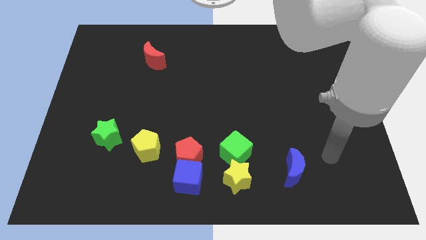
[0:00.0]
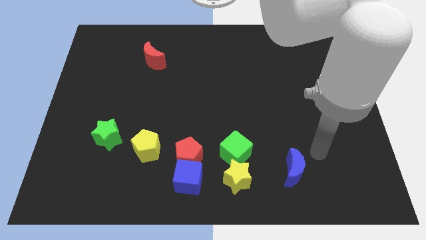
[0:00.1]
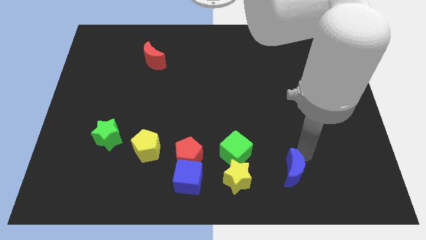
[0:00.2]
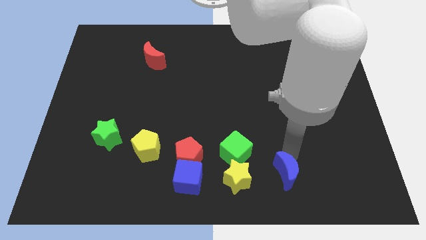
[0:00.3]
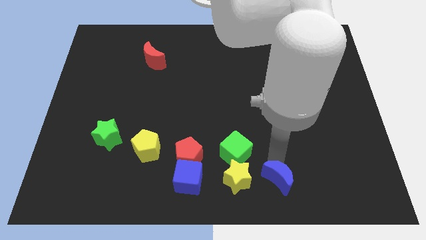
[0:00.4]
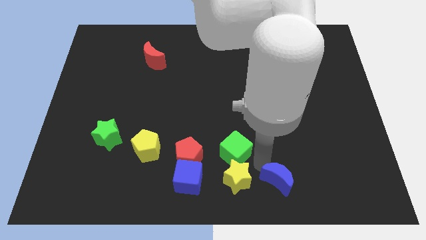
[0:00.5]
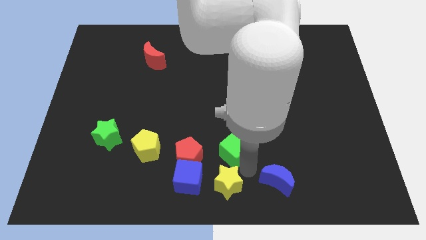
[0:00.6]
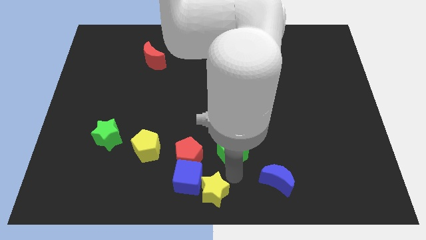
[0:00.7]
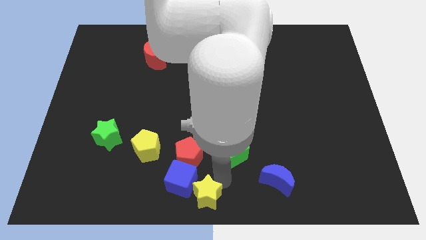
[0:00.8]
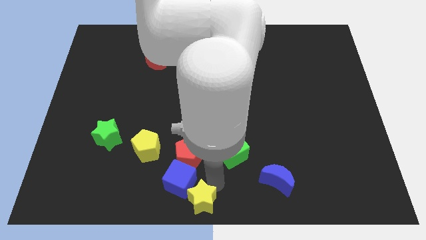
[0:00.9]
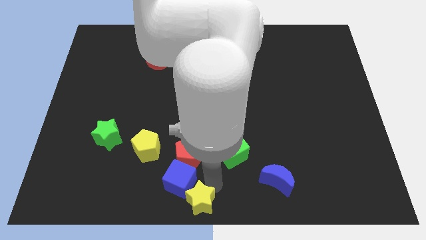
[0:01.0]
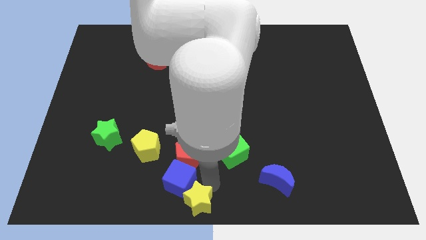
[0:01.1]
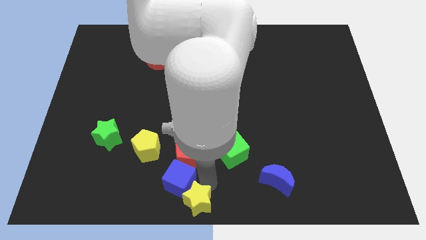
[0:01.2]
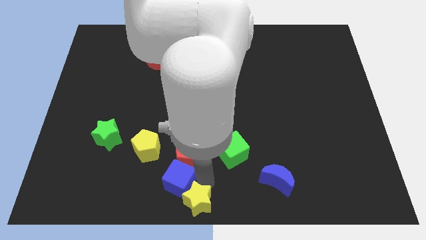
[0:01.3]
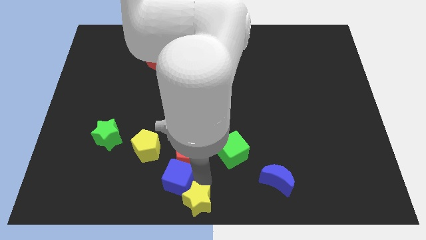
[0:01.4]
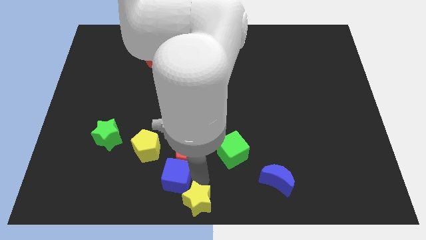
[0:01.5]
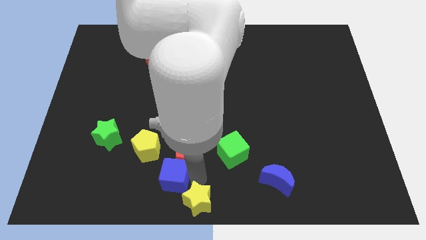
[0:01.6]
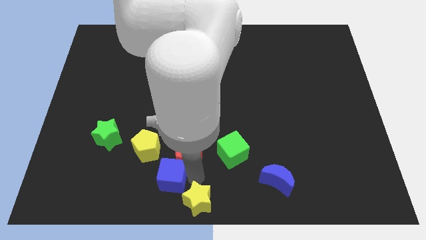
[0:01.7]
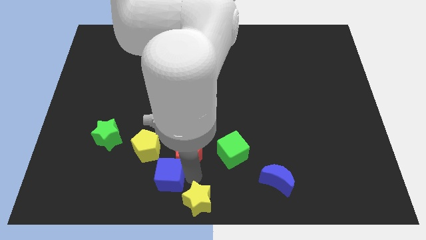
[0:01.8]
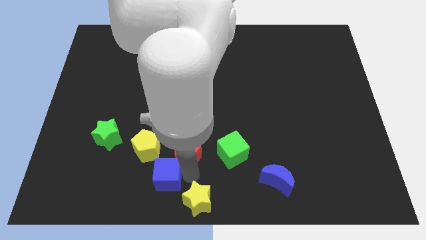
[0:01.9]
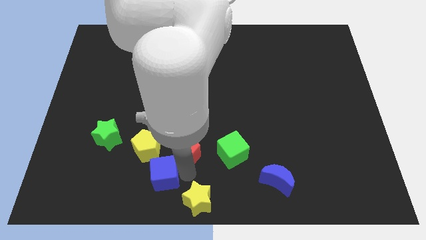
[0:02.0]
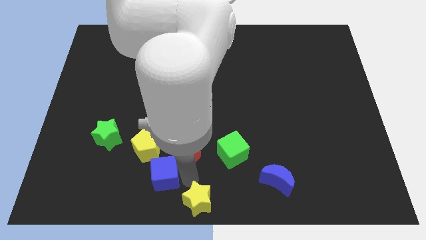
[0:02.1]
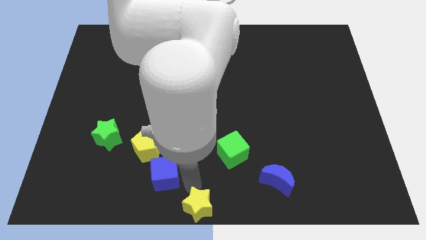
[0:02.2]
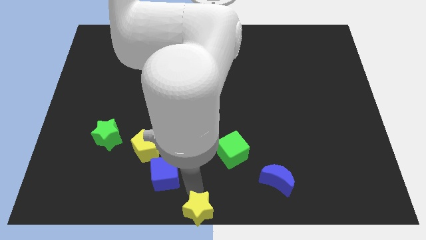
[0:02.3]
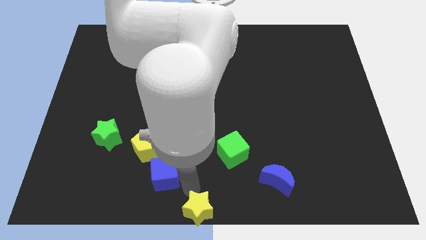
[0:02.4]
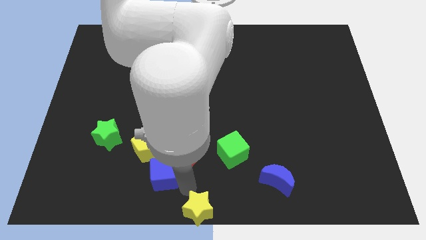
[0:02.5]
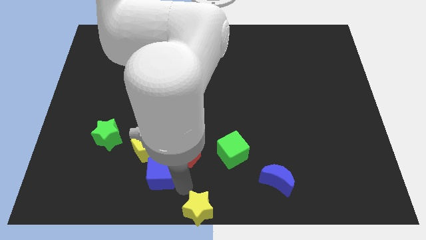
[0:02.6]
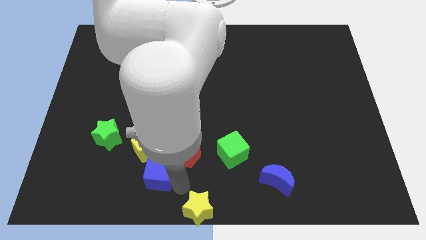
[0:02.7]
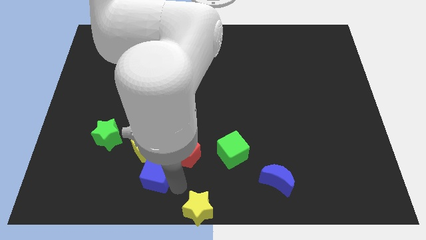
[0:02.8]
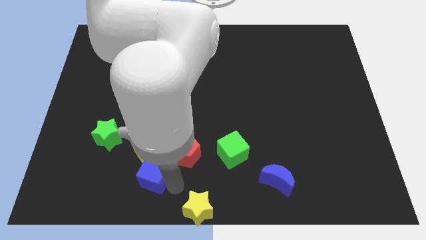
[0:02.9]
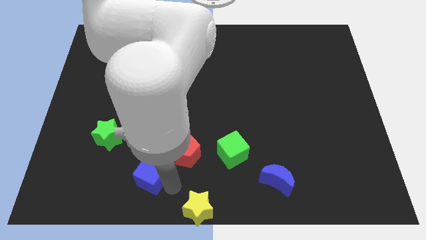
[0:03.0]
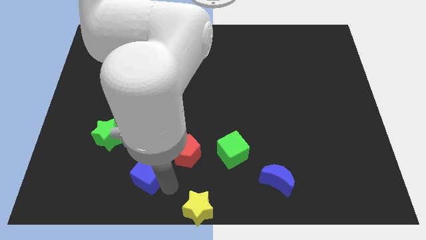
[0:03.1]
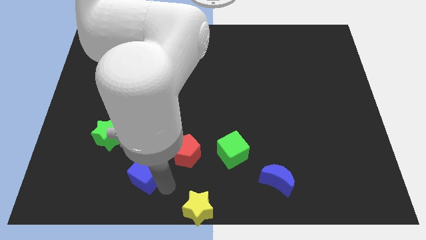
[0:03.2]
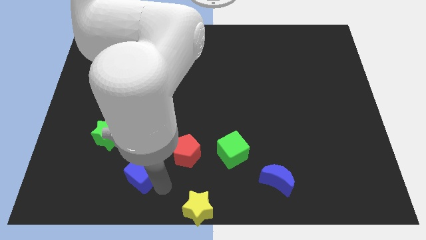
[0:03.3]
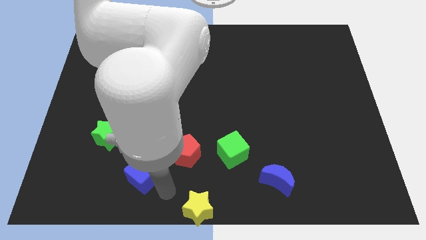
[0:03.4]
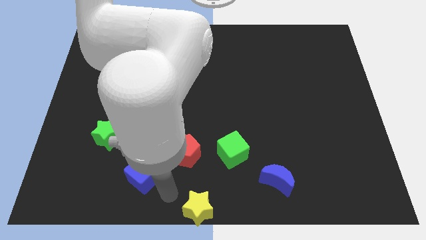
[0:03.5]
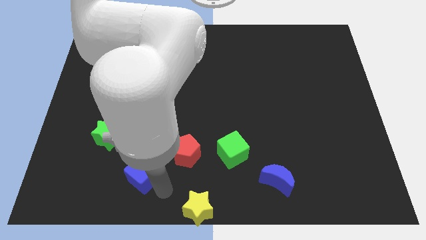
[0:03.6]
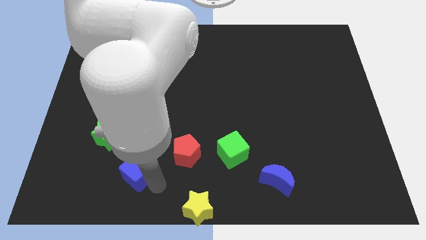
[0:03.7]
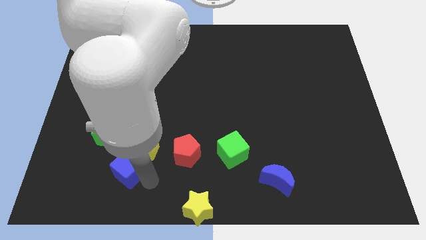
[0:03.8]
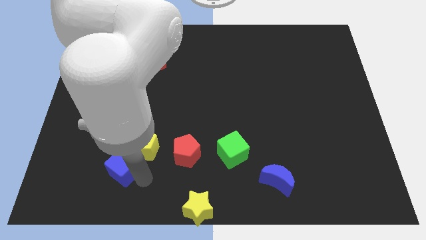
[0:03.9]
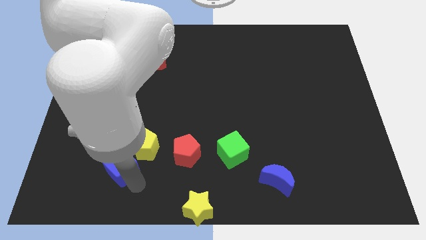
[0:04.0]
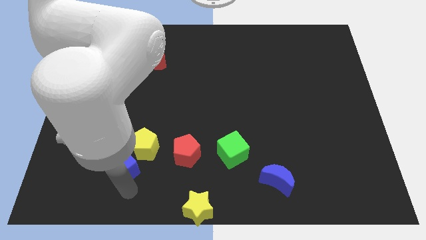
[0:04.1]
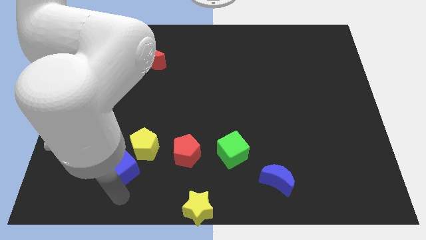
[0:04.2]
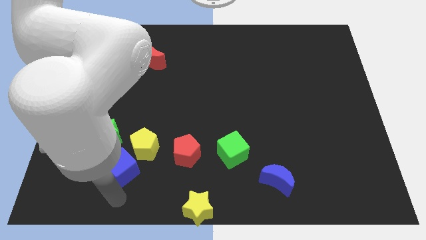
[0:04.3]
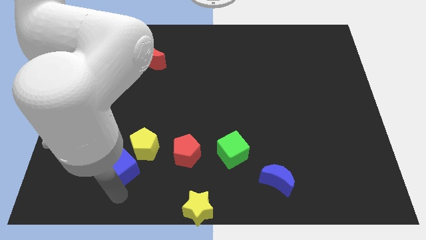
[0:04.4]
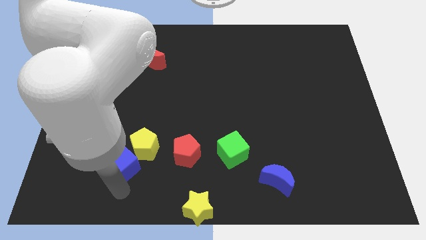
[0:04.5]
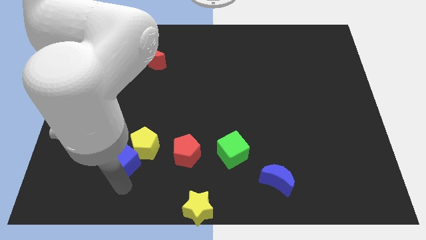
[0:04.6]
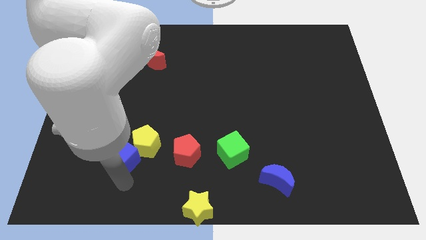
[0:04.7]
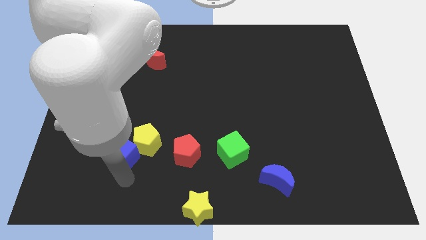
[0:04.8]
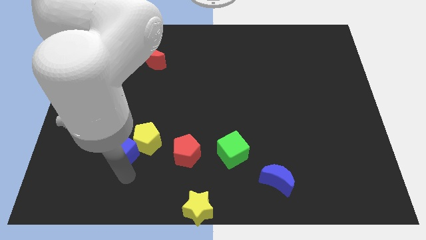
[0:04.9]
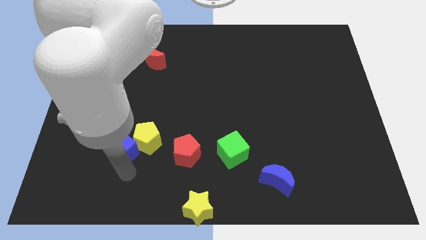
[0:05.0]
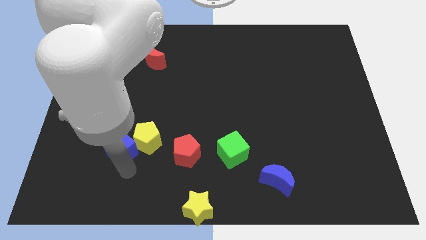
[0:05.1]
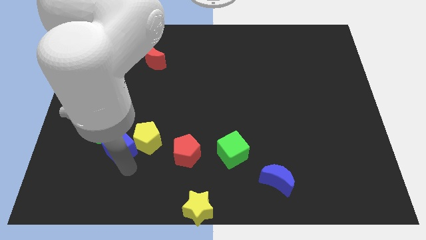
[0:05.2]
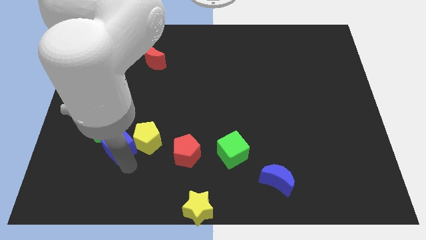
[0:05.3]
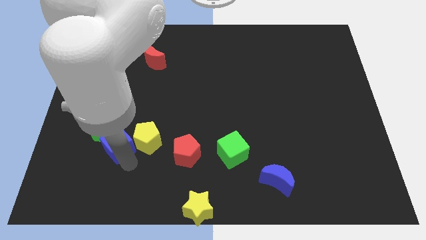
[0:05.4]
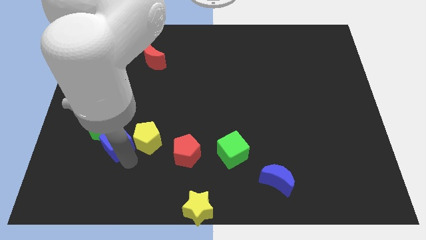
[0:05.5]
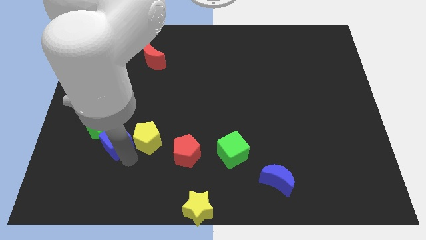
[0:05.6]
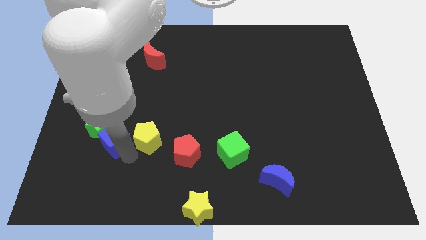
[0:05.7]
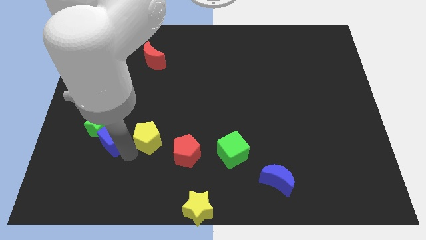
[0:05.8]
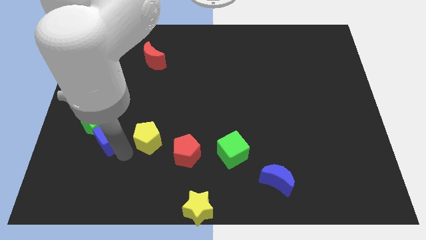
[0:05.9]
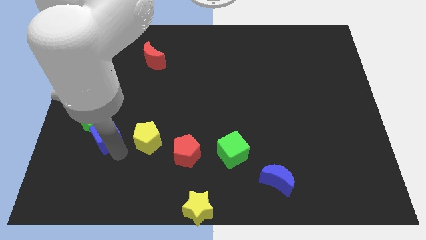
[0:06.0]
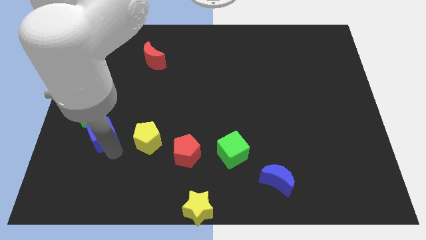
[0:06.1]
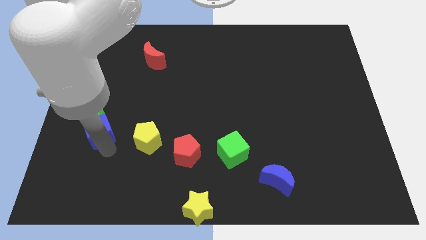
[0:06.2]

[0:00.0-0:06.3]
move the blue cube upwards and then left

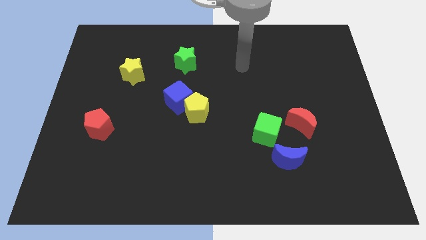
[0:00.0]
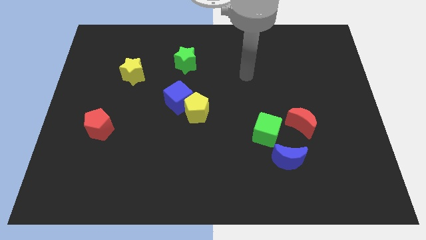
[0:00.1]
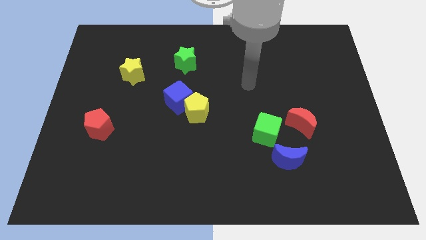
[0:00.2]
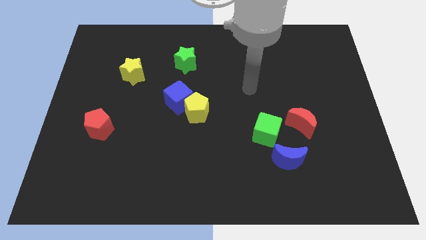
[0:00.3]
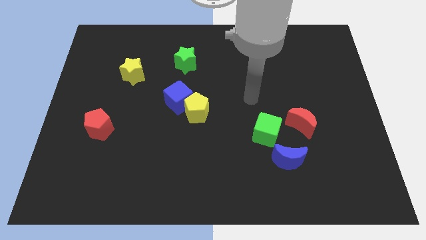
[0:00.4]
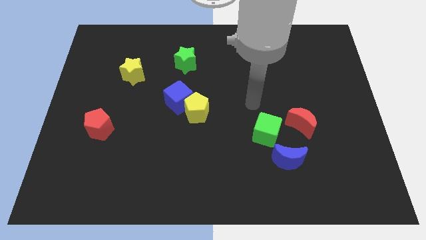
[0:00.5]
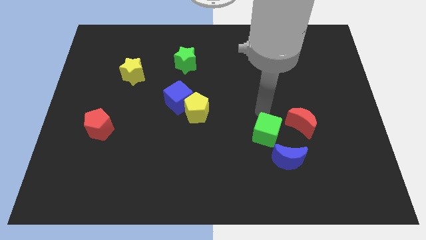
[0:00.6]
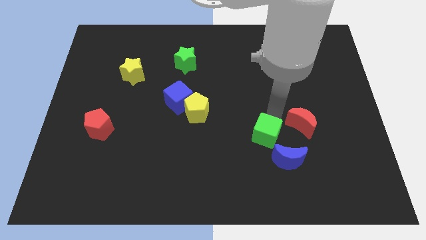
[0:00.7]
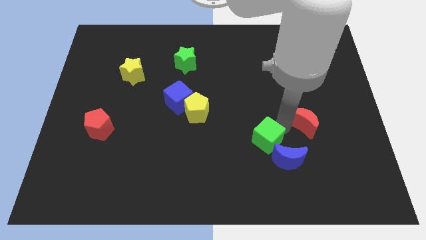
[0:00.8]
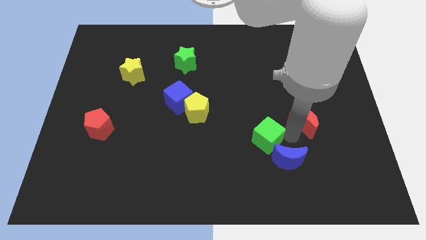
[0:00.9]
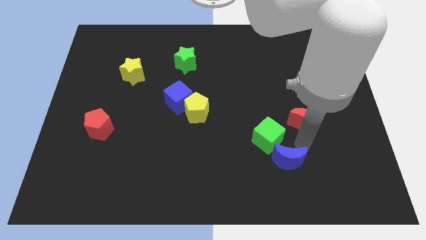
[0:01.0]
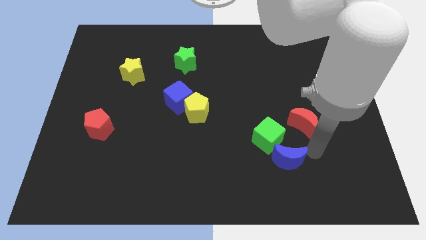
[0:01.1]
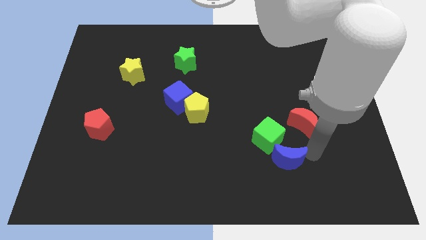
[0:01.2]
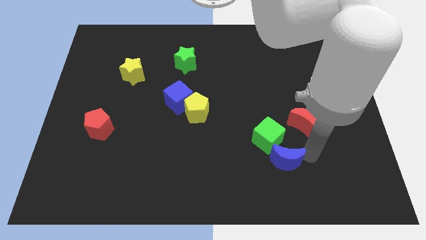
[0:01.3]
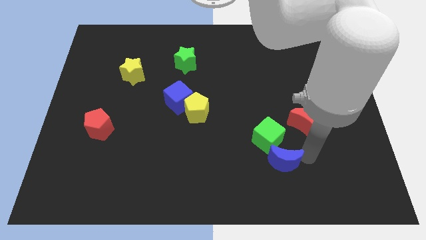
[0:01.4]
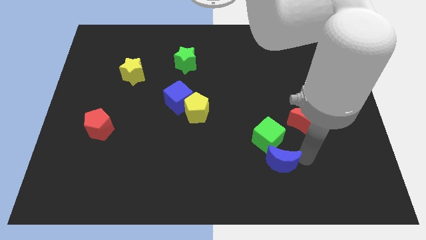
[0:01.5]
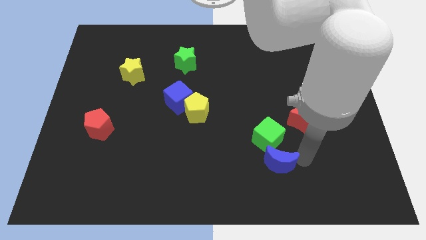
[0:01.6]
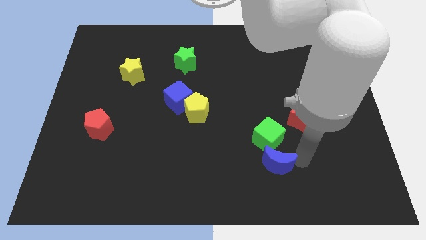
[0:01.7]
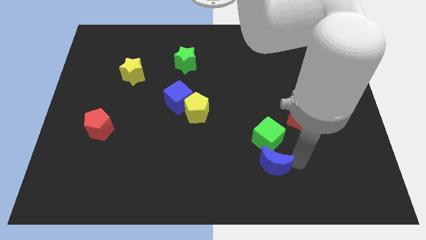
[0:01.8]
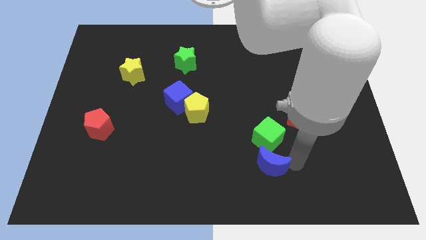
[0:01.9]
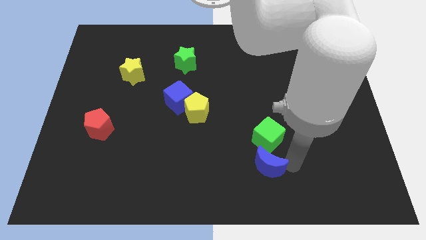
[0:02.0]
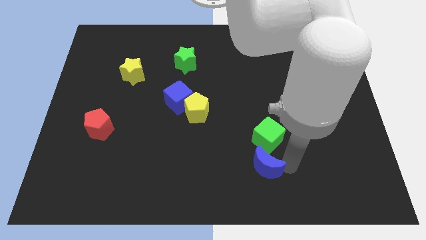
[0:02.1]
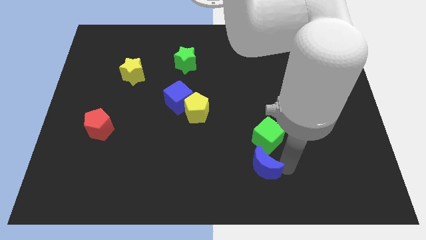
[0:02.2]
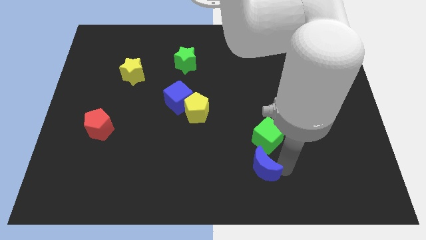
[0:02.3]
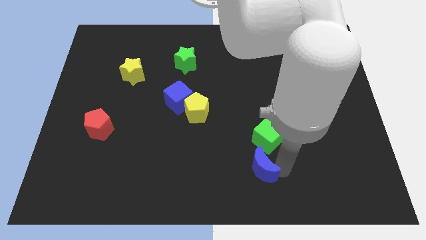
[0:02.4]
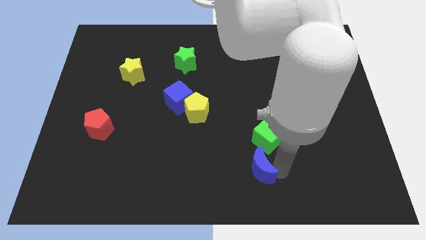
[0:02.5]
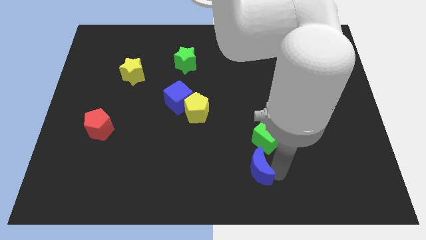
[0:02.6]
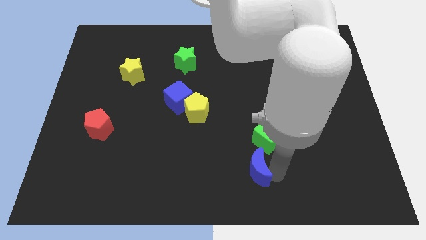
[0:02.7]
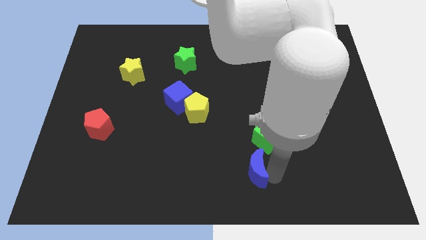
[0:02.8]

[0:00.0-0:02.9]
push the blue moon somewhat left
